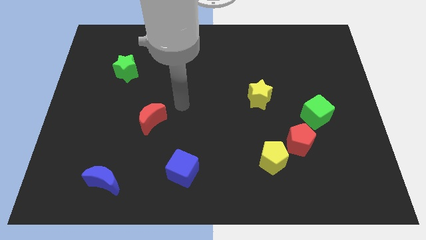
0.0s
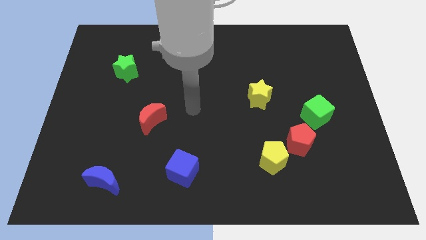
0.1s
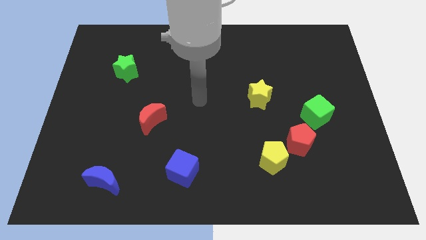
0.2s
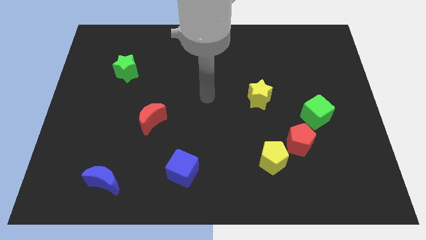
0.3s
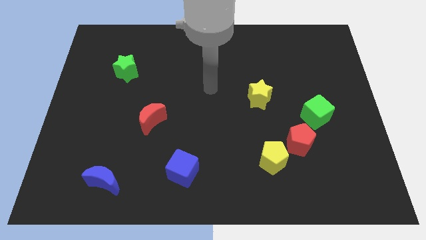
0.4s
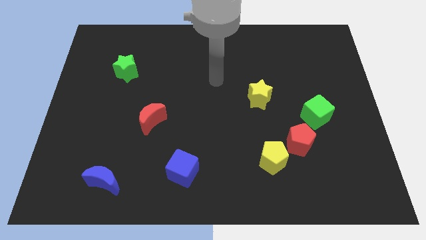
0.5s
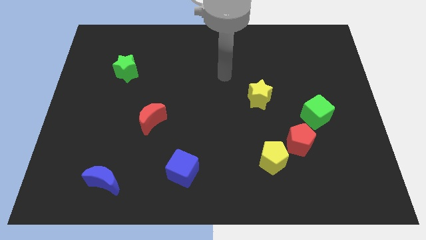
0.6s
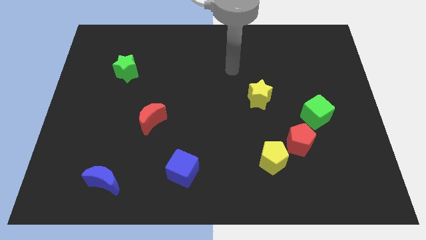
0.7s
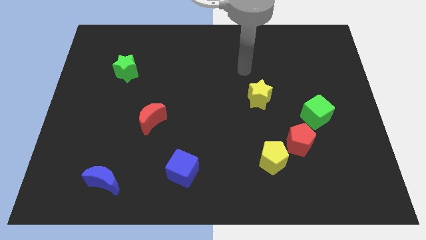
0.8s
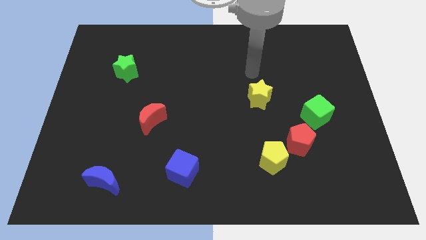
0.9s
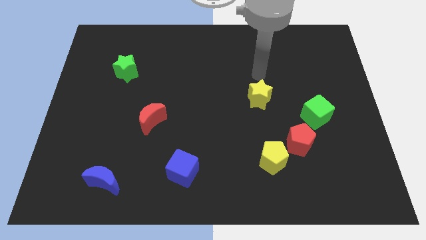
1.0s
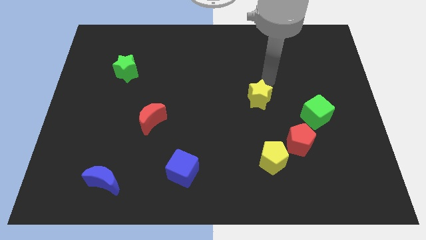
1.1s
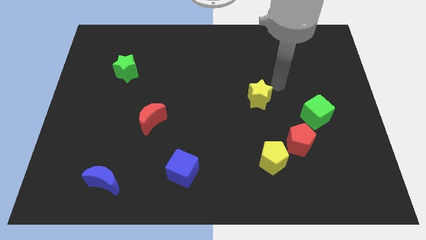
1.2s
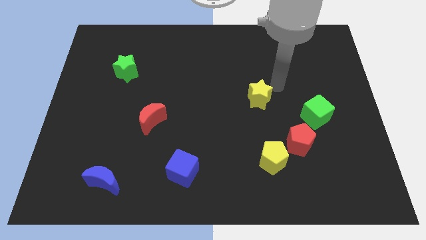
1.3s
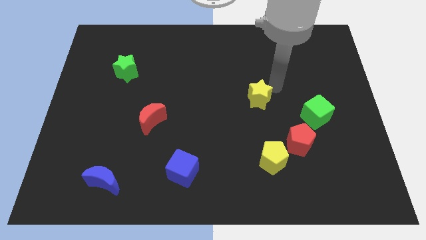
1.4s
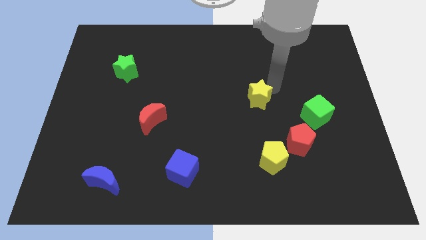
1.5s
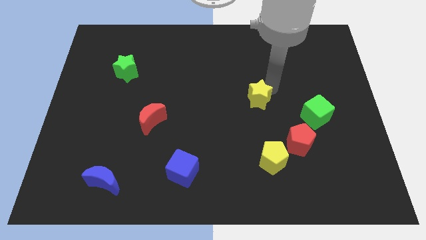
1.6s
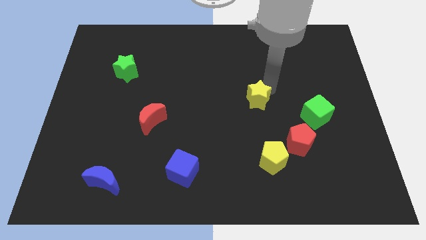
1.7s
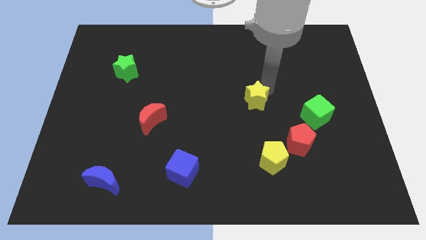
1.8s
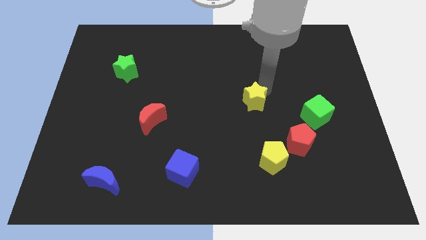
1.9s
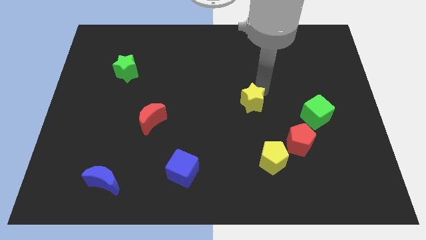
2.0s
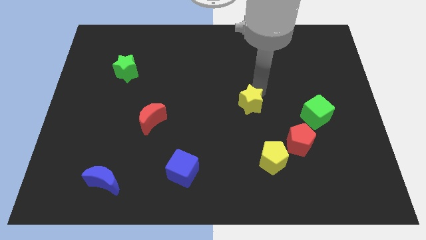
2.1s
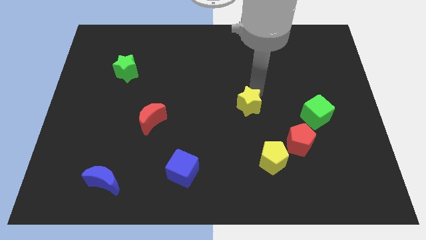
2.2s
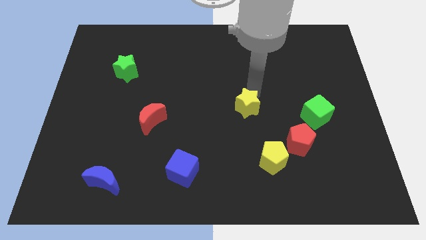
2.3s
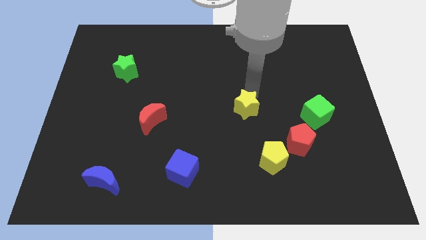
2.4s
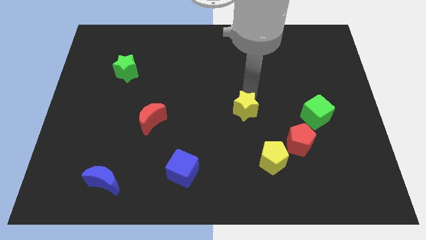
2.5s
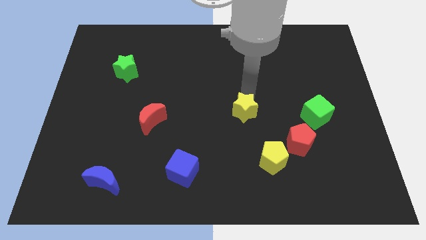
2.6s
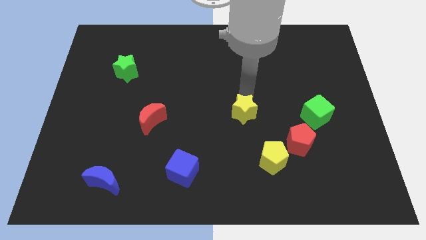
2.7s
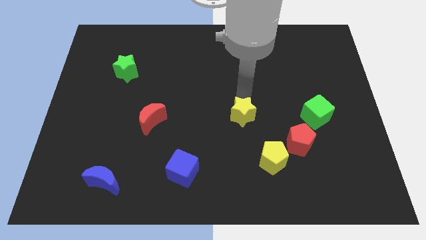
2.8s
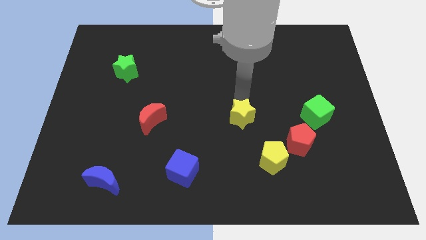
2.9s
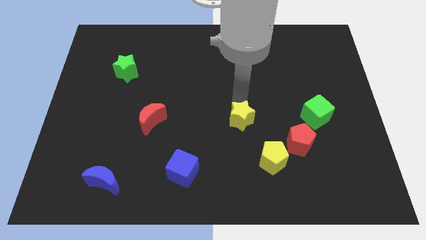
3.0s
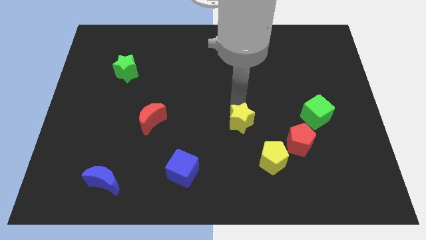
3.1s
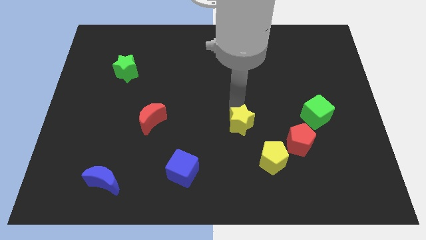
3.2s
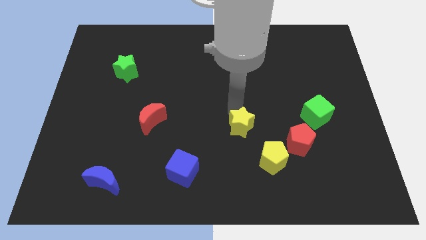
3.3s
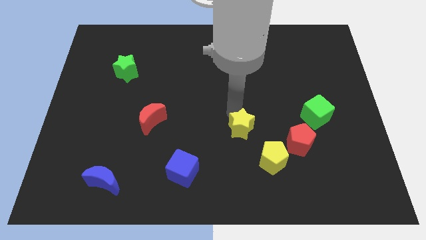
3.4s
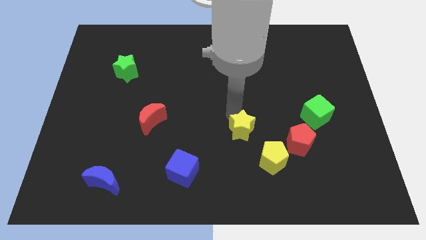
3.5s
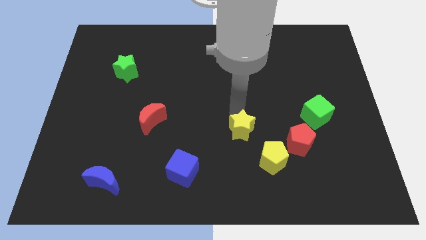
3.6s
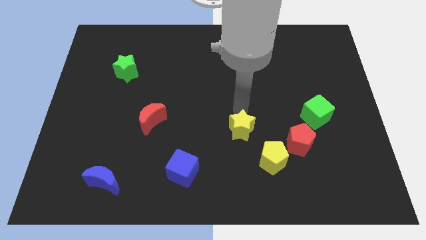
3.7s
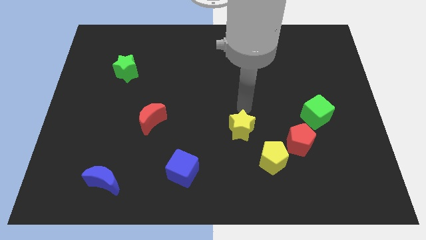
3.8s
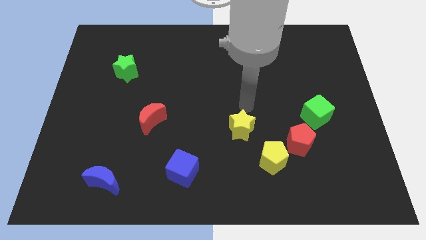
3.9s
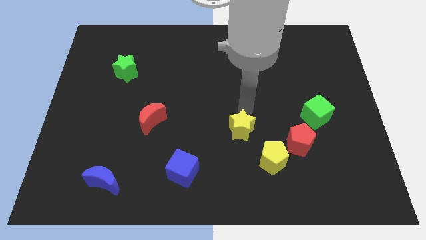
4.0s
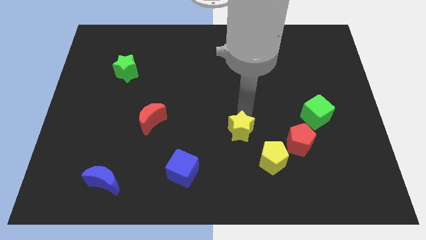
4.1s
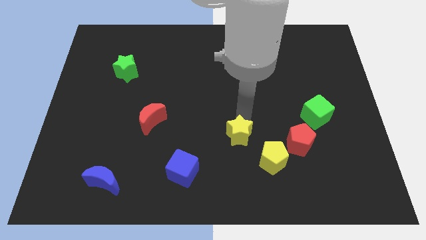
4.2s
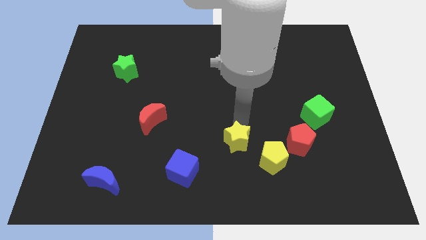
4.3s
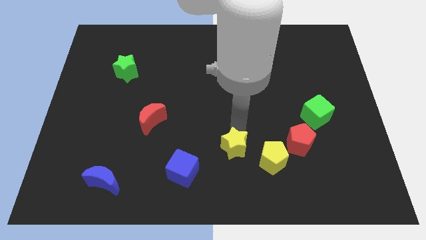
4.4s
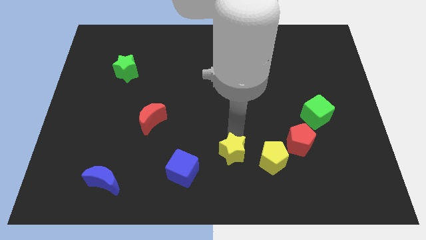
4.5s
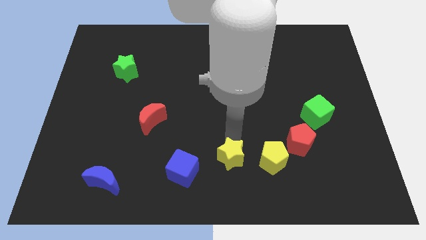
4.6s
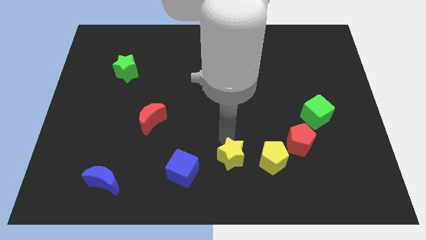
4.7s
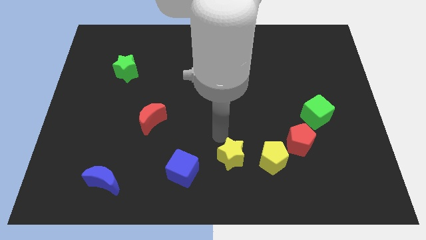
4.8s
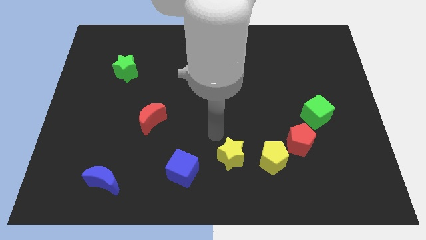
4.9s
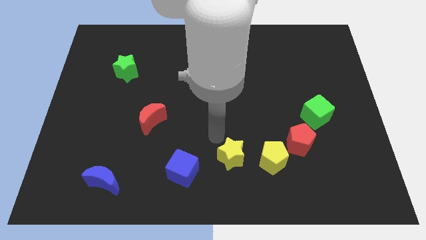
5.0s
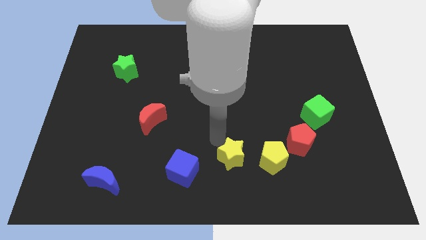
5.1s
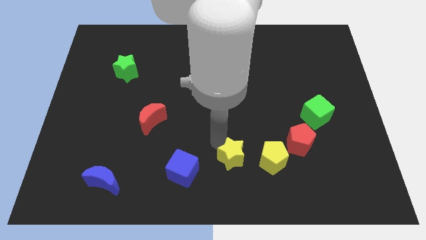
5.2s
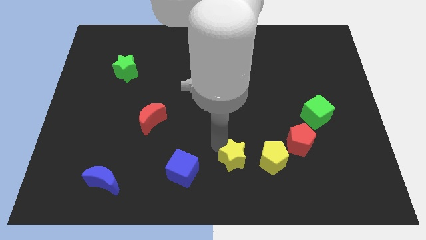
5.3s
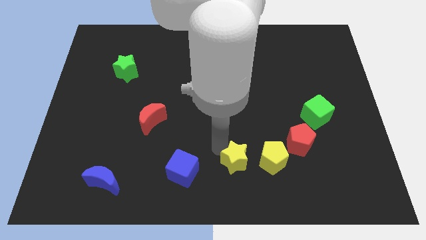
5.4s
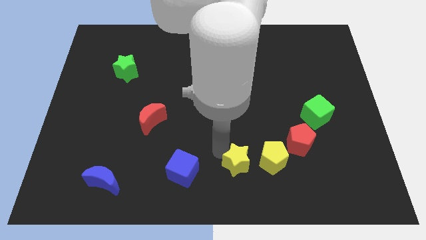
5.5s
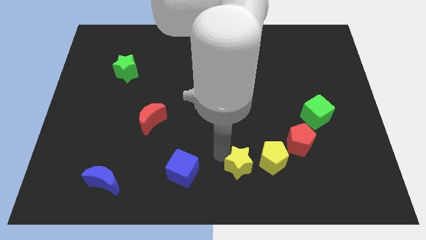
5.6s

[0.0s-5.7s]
slide the yellow star diagonally down and to the left of the yellow pentagon

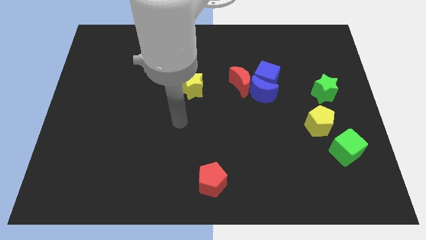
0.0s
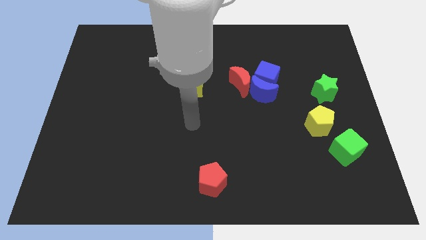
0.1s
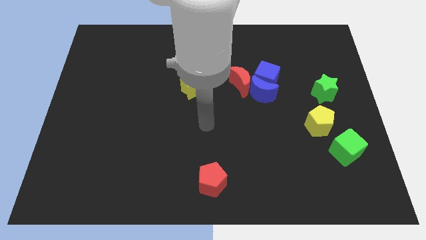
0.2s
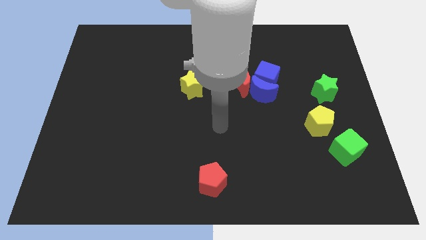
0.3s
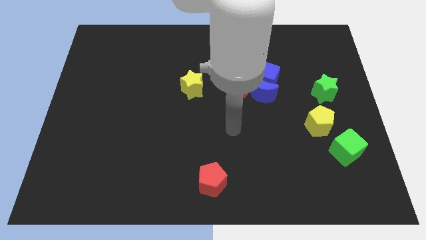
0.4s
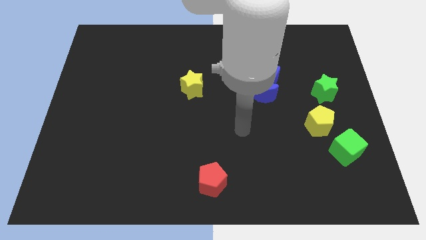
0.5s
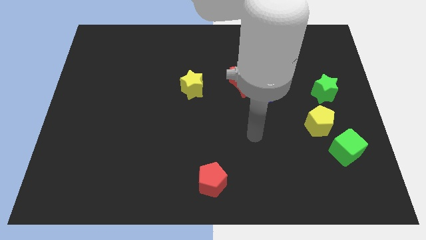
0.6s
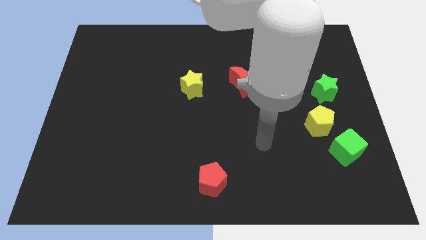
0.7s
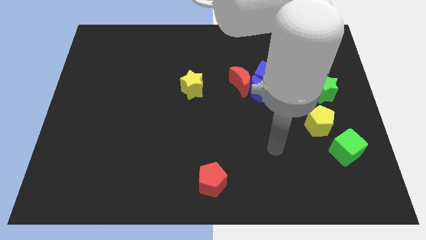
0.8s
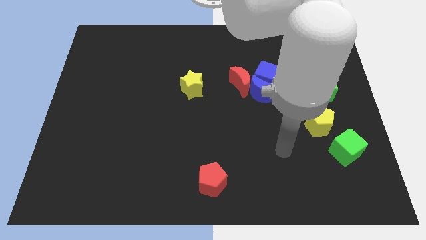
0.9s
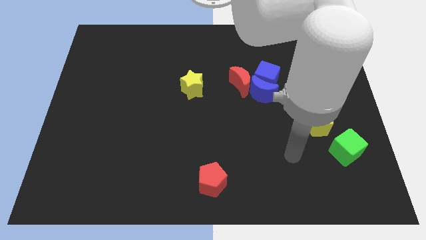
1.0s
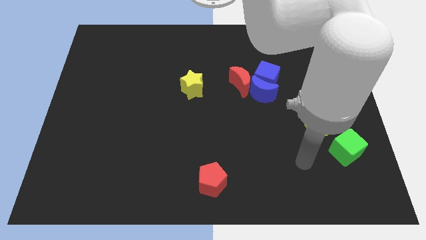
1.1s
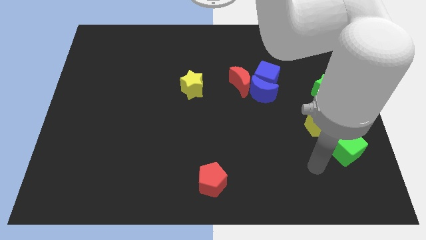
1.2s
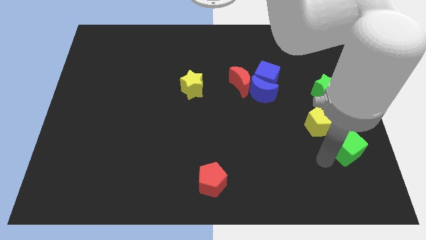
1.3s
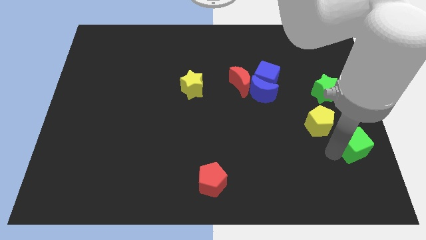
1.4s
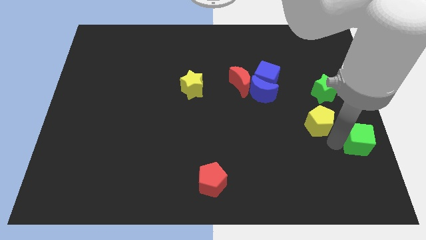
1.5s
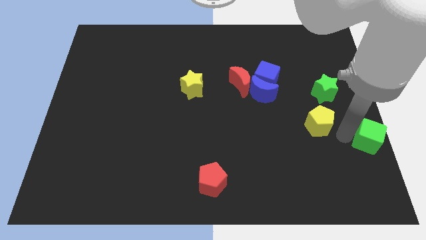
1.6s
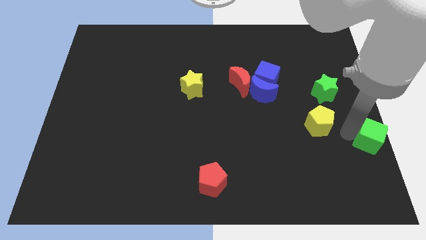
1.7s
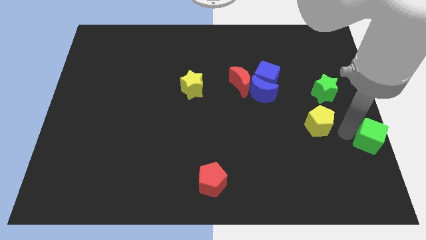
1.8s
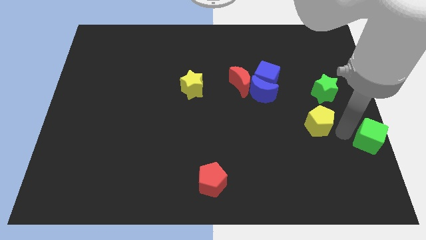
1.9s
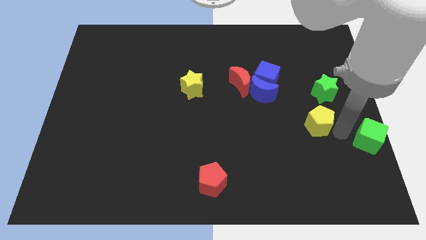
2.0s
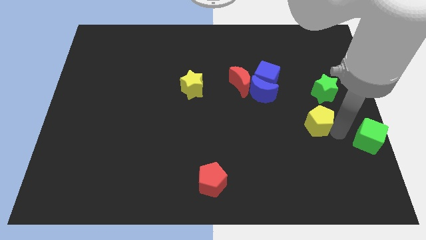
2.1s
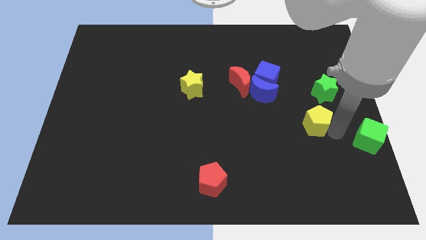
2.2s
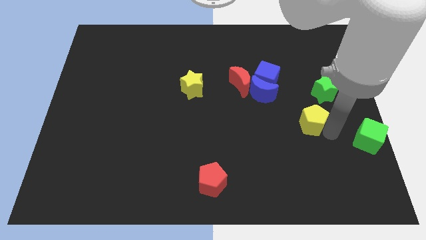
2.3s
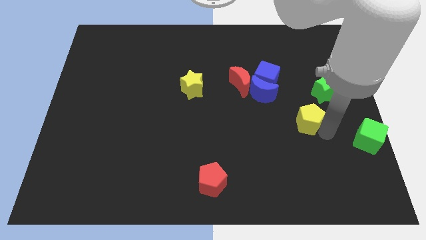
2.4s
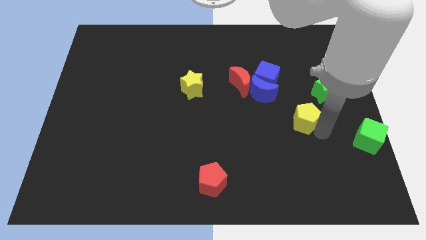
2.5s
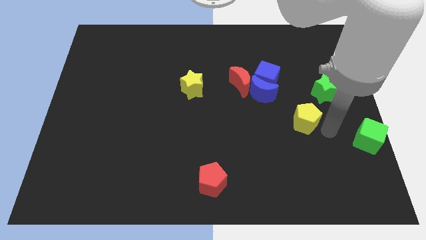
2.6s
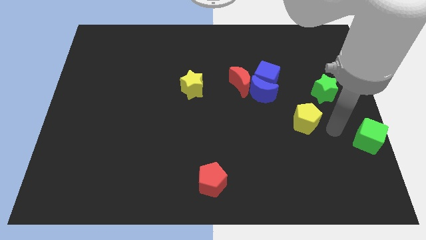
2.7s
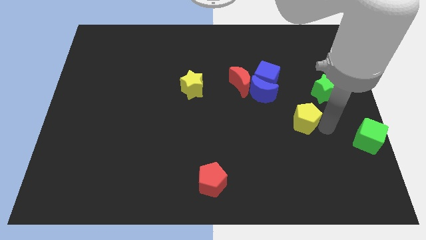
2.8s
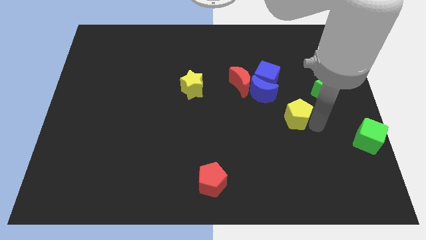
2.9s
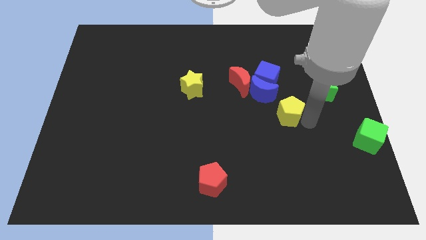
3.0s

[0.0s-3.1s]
slide the yellow pentagon to the bottom of the blue cube
